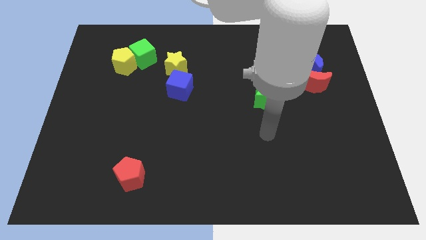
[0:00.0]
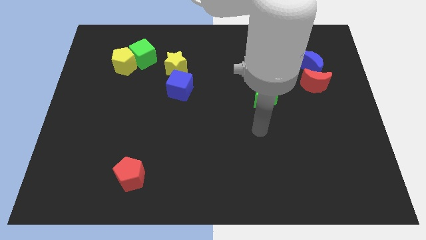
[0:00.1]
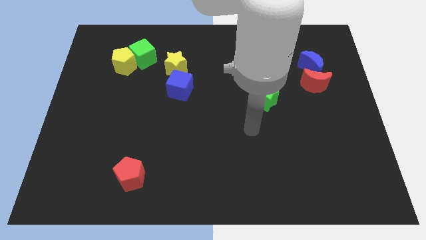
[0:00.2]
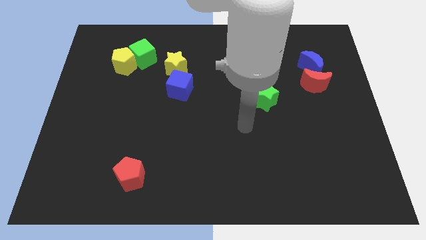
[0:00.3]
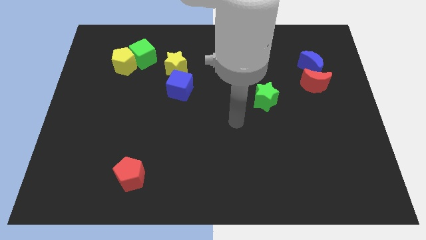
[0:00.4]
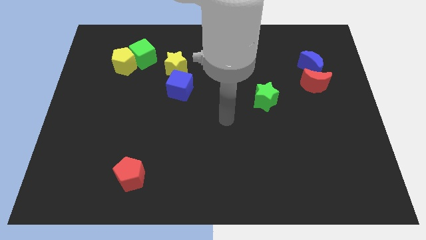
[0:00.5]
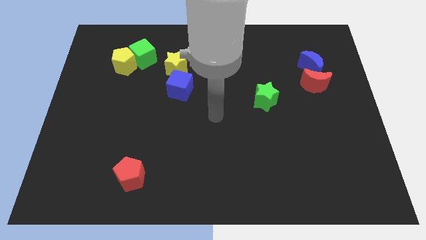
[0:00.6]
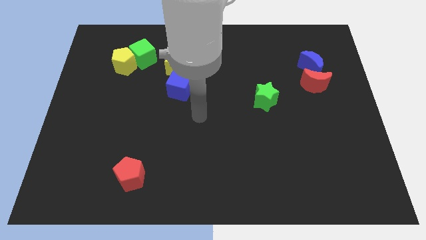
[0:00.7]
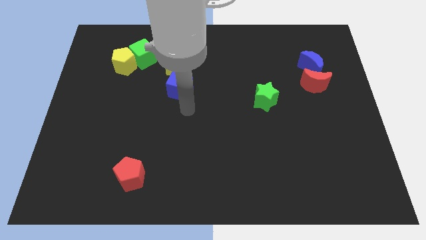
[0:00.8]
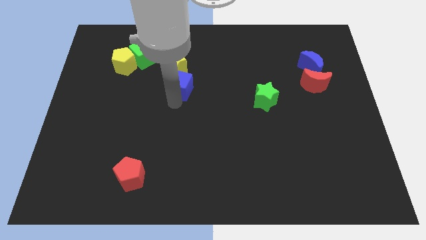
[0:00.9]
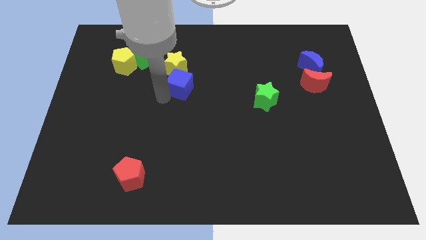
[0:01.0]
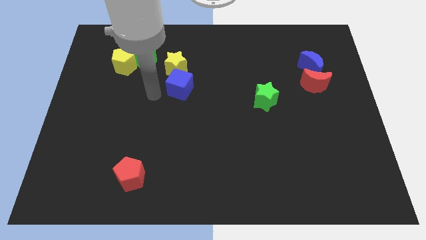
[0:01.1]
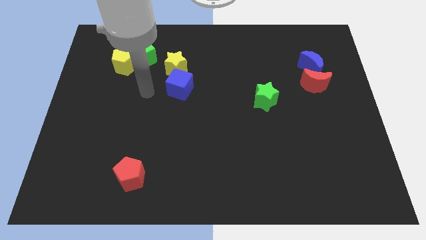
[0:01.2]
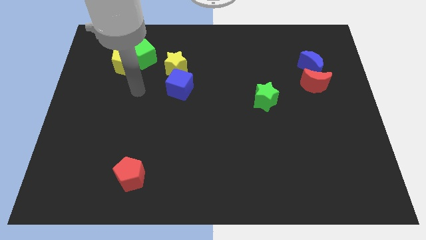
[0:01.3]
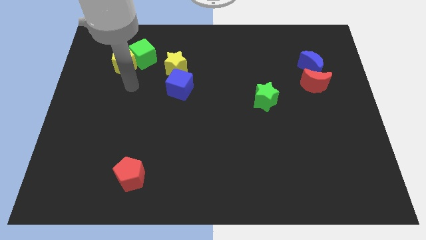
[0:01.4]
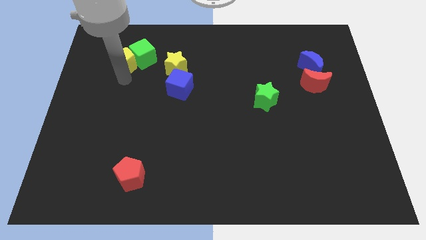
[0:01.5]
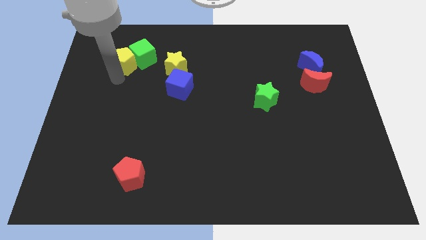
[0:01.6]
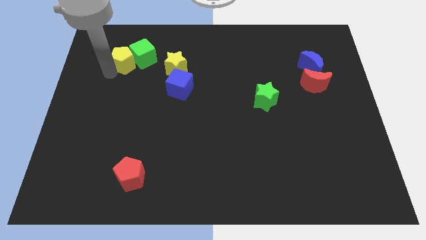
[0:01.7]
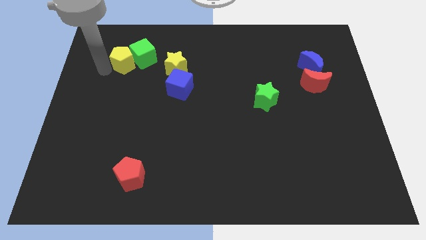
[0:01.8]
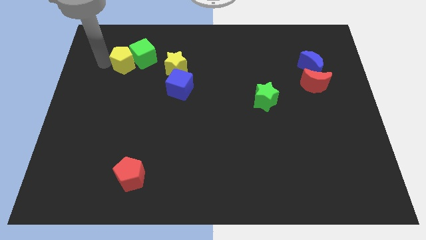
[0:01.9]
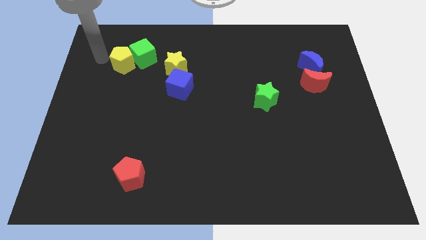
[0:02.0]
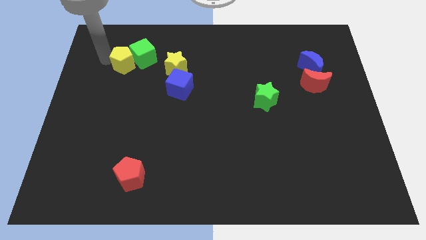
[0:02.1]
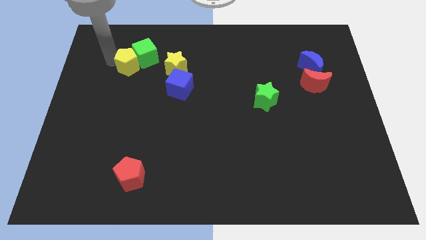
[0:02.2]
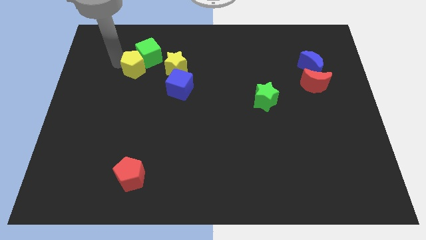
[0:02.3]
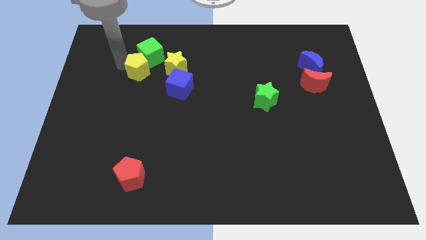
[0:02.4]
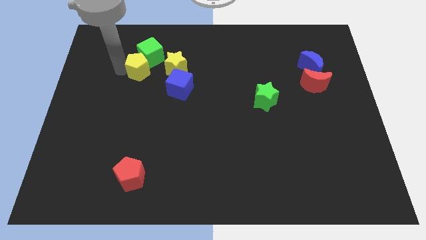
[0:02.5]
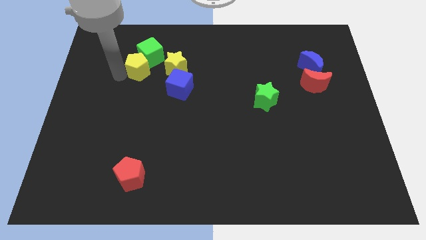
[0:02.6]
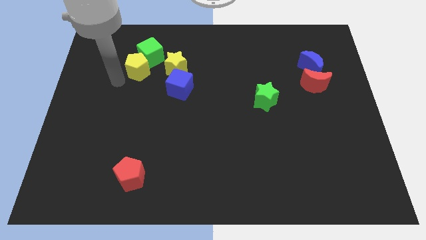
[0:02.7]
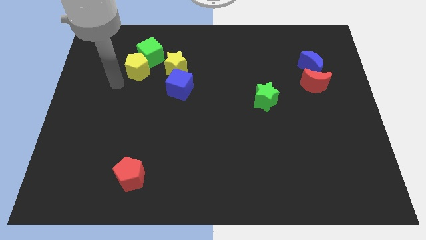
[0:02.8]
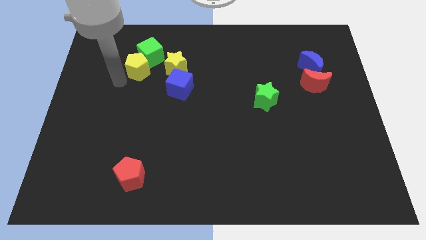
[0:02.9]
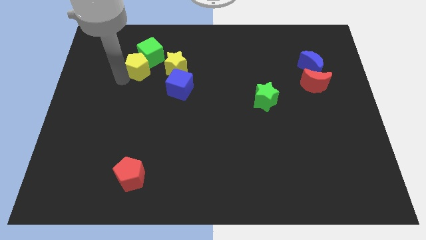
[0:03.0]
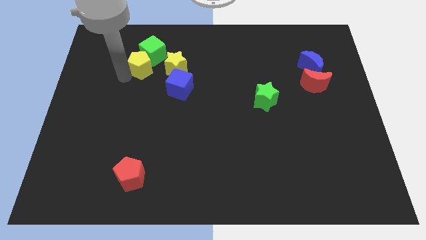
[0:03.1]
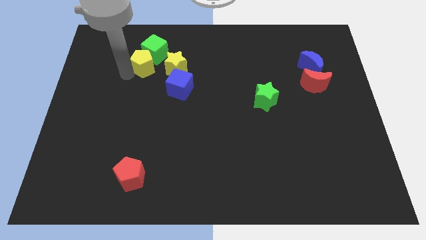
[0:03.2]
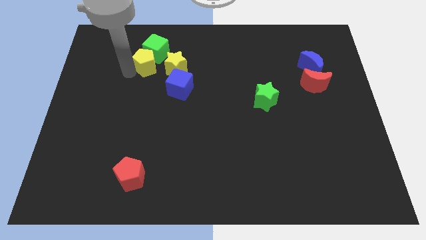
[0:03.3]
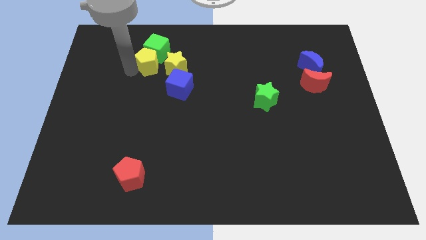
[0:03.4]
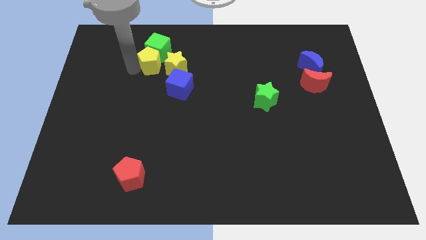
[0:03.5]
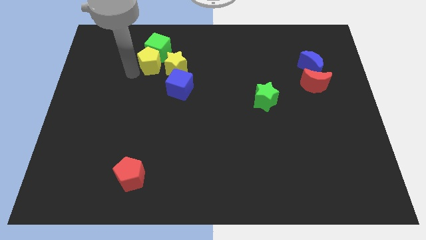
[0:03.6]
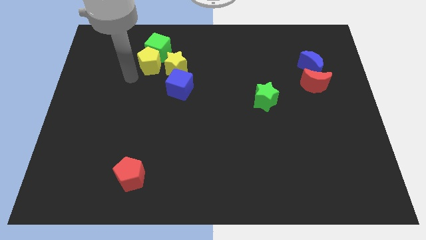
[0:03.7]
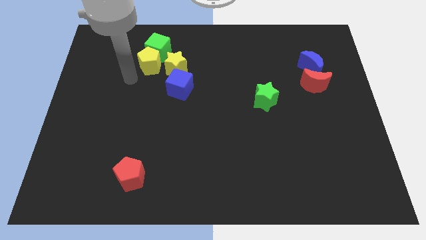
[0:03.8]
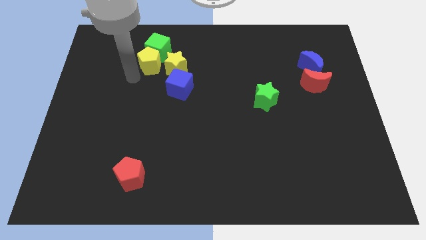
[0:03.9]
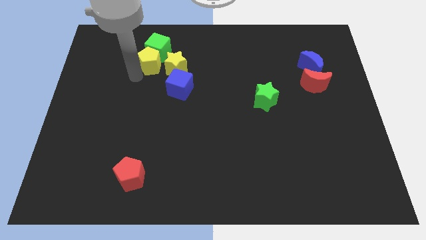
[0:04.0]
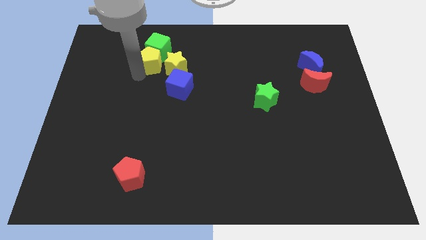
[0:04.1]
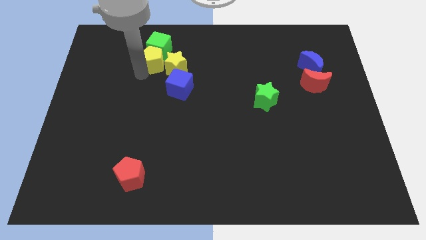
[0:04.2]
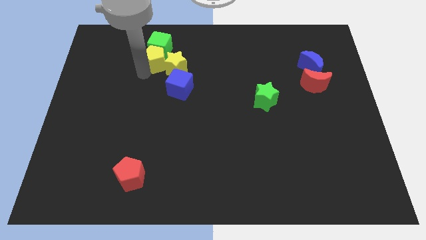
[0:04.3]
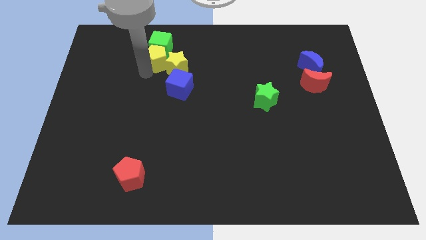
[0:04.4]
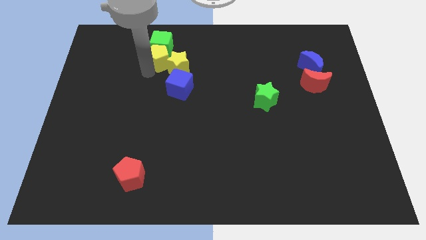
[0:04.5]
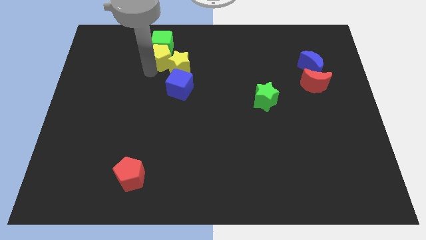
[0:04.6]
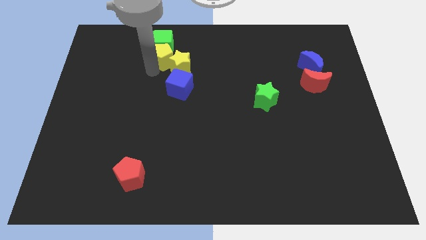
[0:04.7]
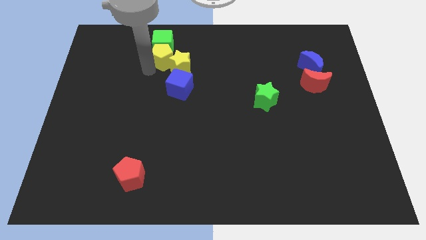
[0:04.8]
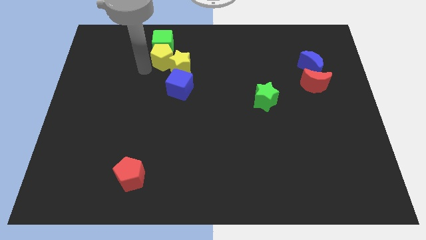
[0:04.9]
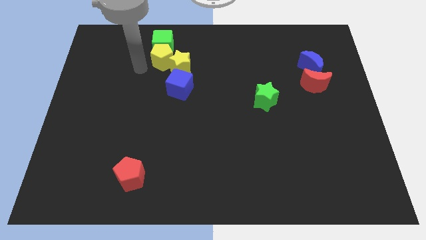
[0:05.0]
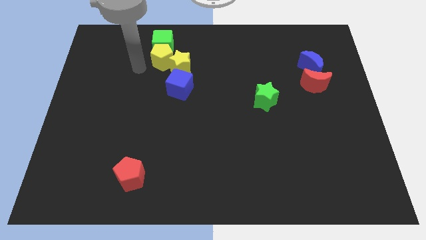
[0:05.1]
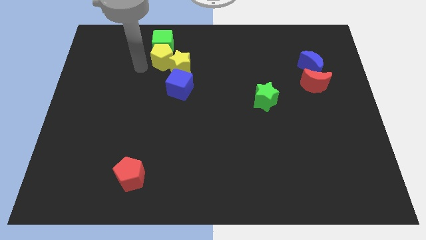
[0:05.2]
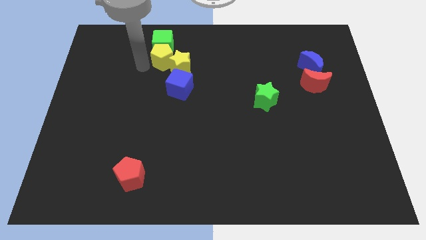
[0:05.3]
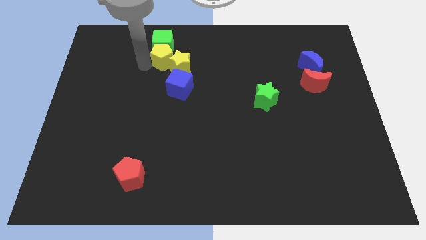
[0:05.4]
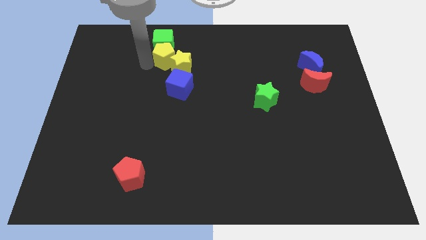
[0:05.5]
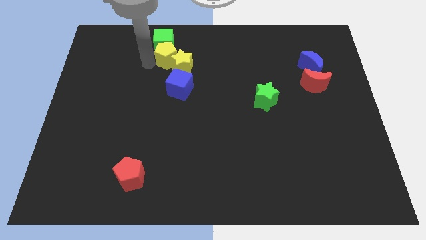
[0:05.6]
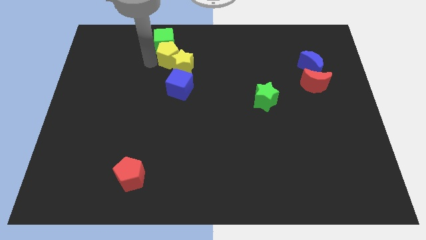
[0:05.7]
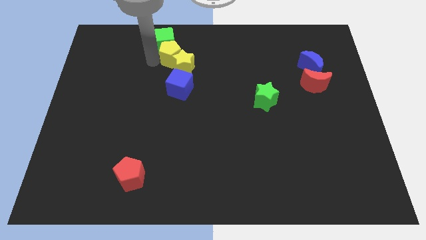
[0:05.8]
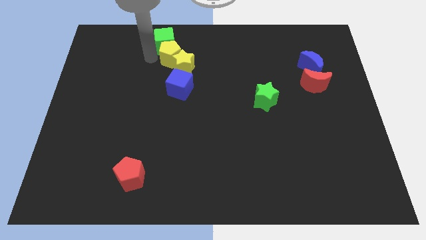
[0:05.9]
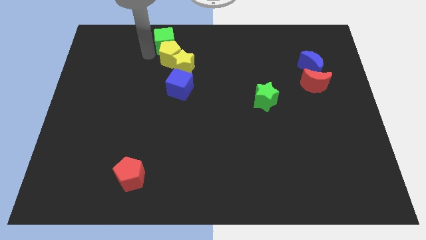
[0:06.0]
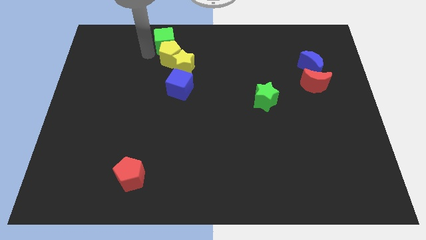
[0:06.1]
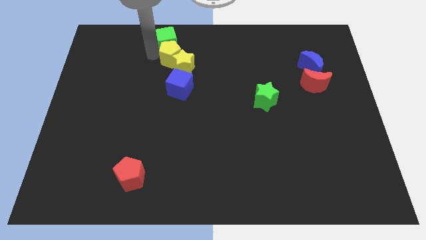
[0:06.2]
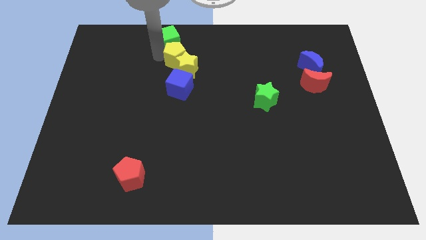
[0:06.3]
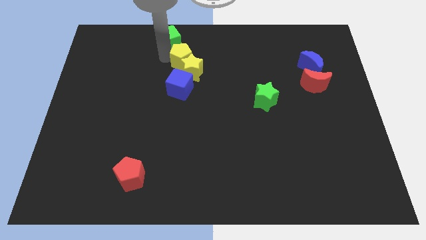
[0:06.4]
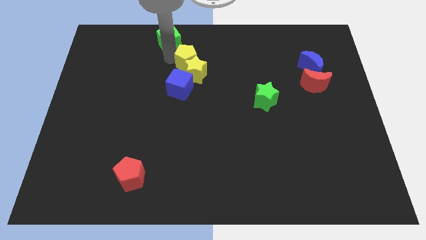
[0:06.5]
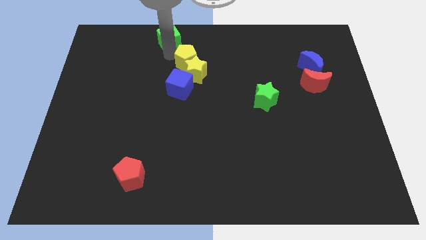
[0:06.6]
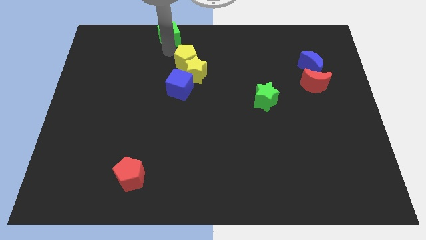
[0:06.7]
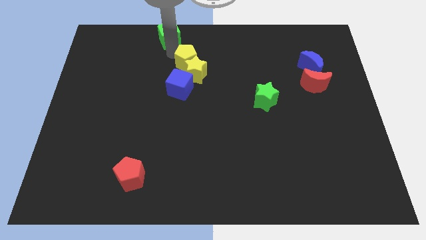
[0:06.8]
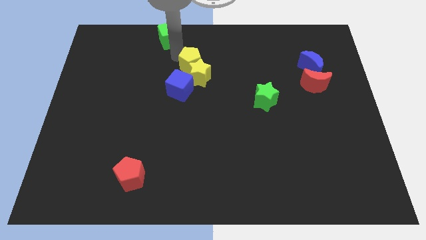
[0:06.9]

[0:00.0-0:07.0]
slide the yellow pentagon diagonally up and to the right of the blue cube

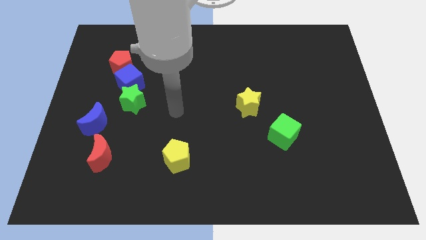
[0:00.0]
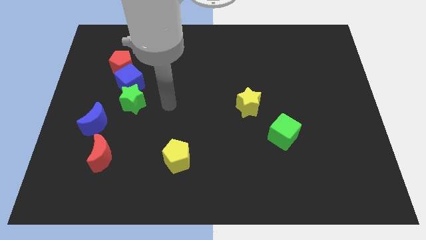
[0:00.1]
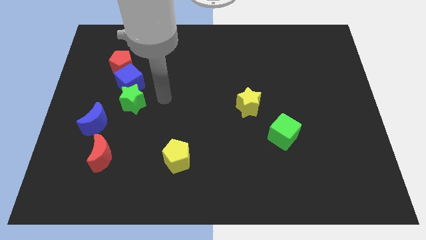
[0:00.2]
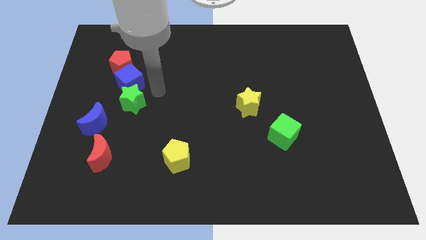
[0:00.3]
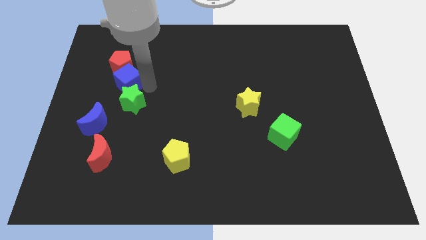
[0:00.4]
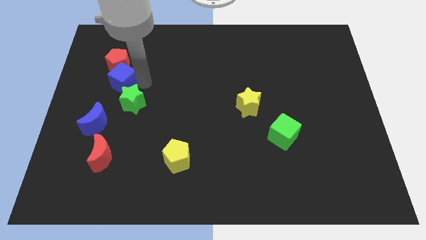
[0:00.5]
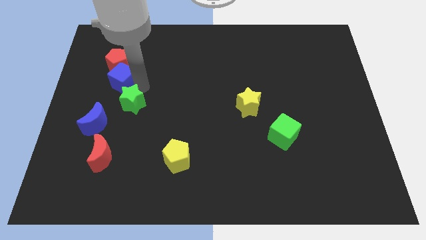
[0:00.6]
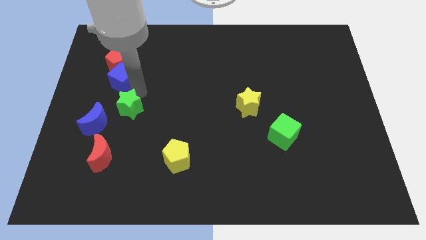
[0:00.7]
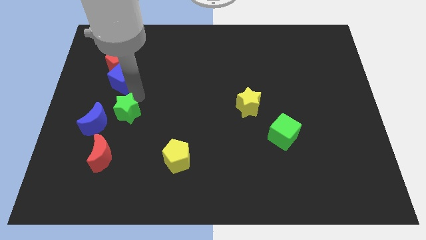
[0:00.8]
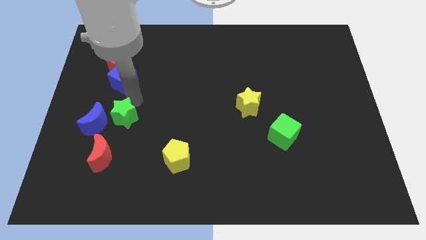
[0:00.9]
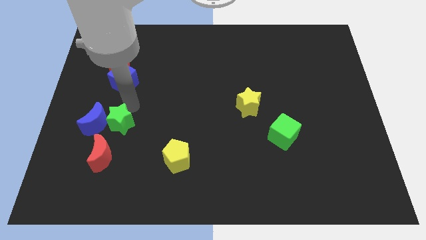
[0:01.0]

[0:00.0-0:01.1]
slide the green star to the bottom right of the blue moon
